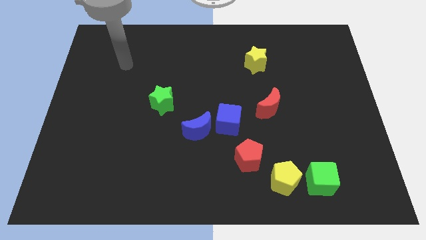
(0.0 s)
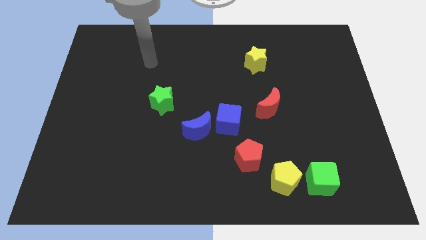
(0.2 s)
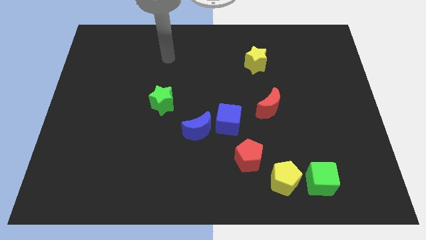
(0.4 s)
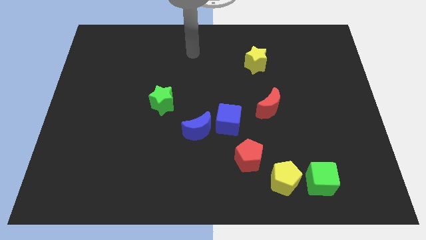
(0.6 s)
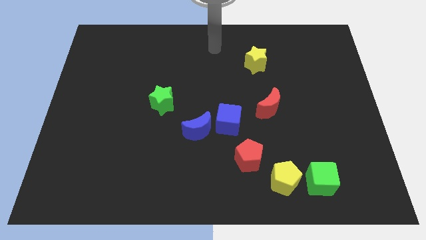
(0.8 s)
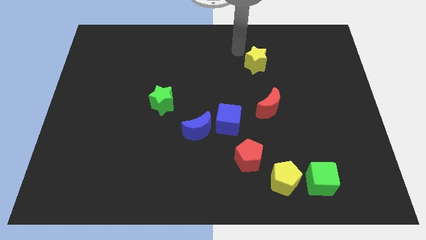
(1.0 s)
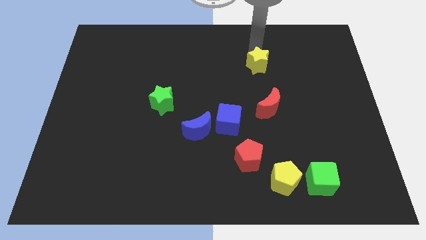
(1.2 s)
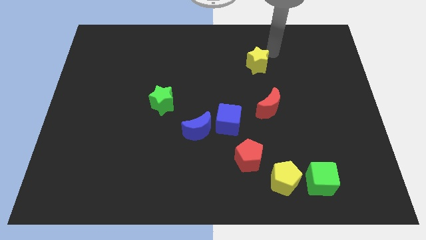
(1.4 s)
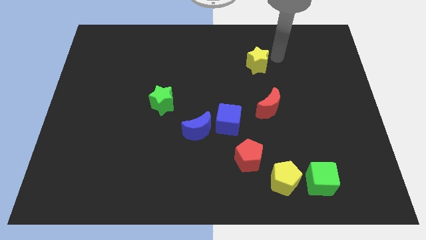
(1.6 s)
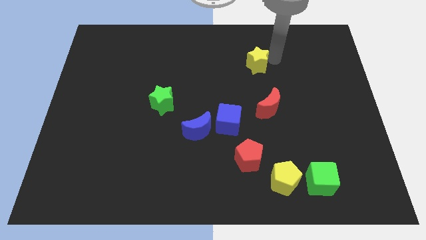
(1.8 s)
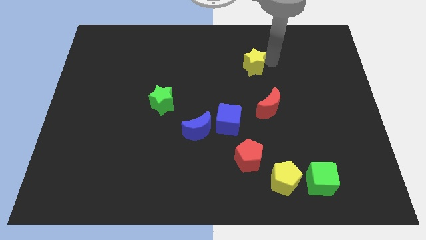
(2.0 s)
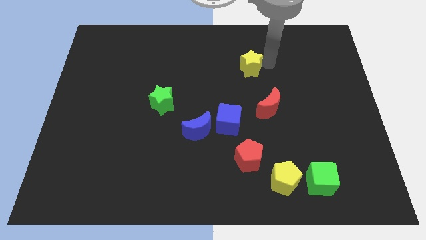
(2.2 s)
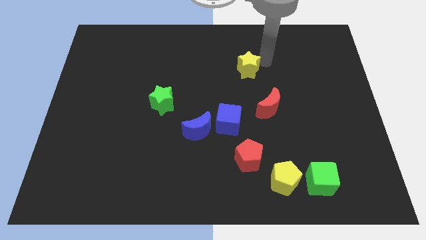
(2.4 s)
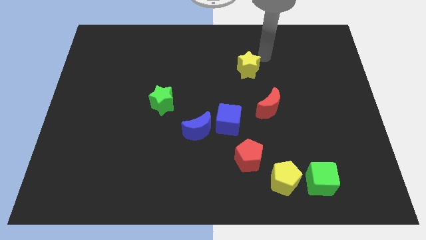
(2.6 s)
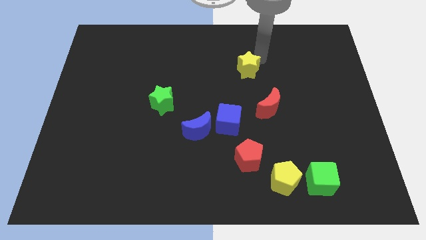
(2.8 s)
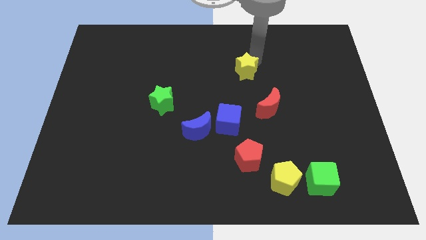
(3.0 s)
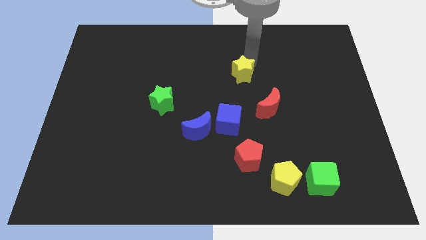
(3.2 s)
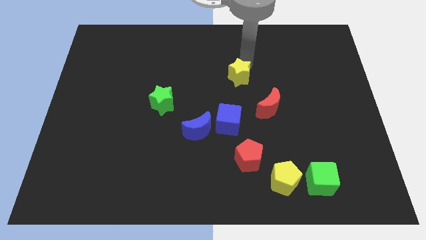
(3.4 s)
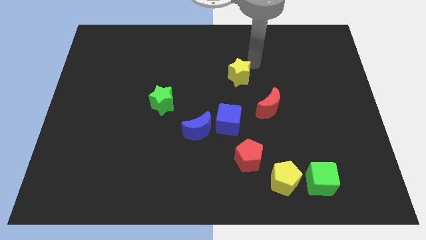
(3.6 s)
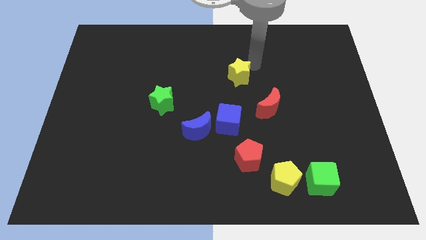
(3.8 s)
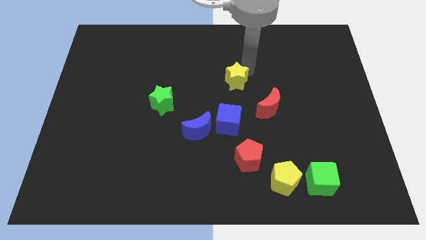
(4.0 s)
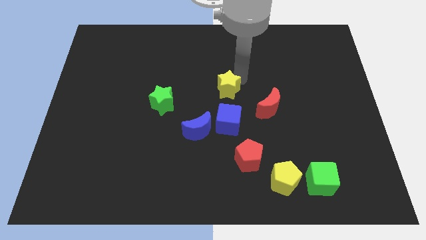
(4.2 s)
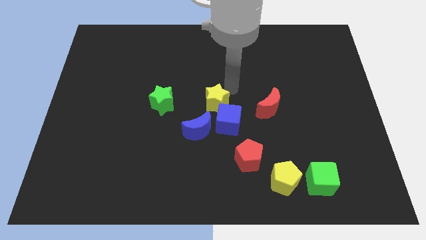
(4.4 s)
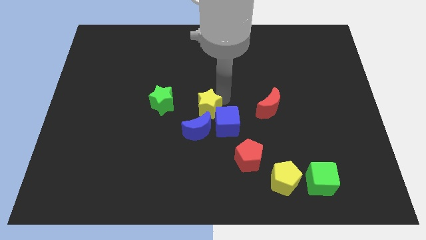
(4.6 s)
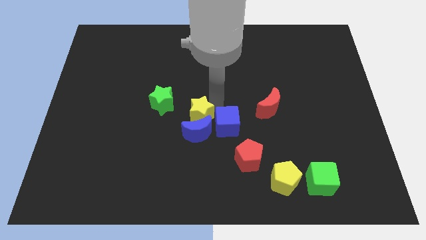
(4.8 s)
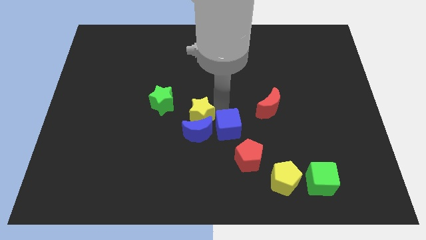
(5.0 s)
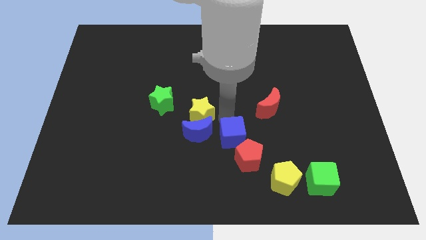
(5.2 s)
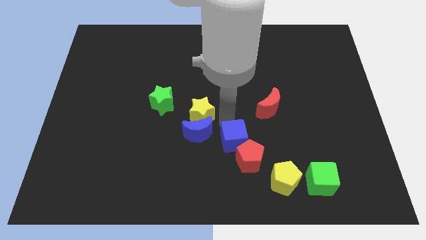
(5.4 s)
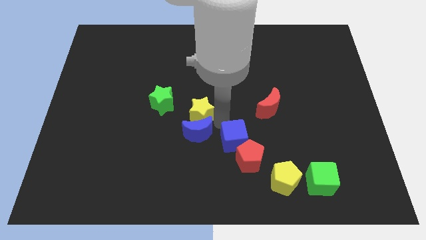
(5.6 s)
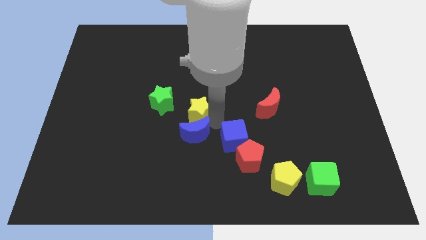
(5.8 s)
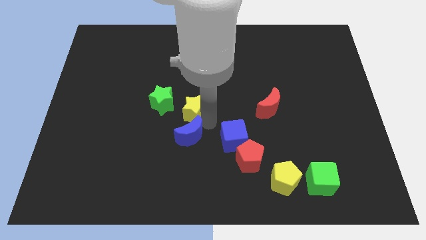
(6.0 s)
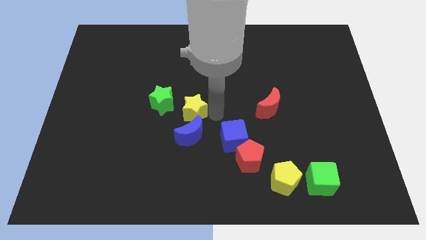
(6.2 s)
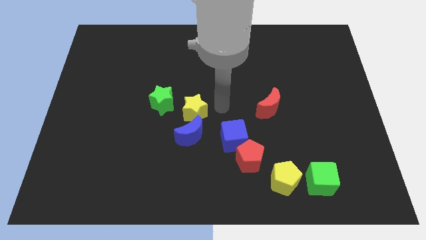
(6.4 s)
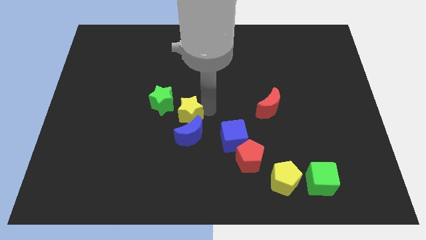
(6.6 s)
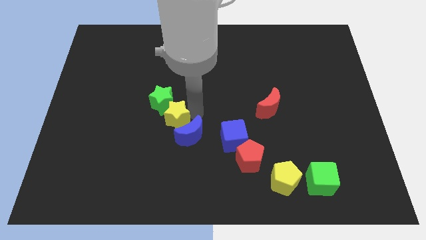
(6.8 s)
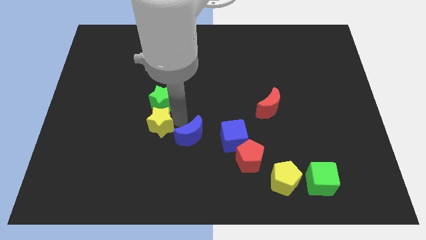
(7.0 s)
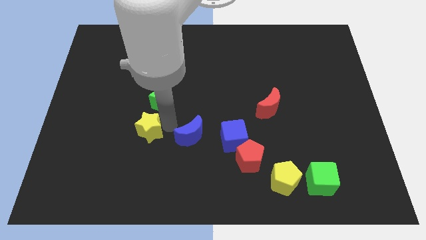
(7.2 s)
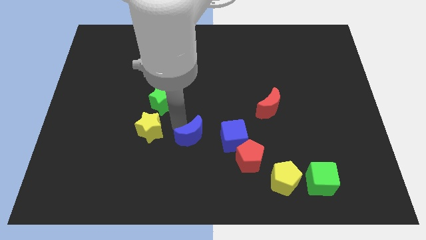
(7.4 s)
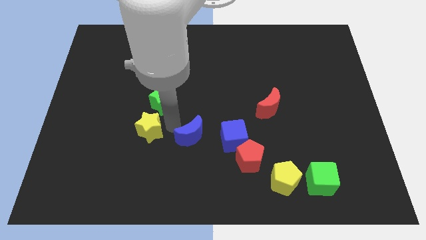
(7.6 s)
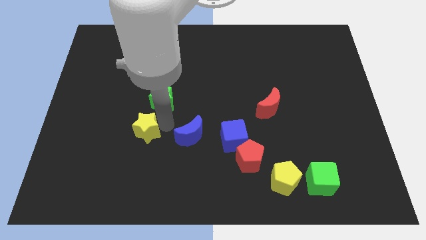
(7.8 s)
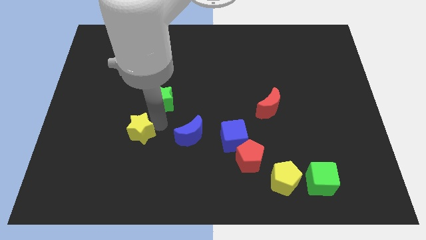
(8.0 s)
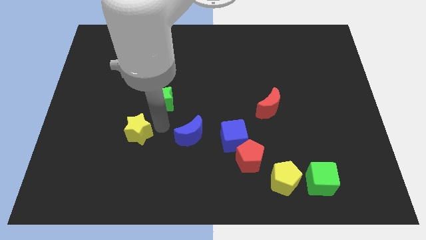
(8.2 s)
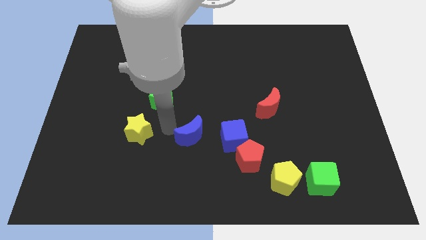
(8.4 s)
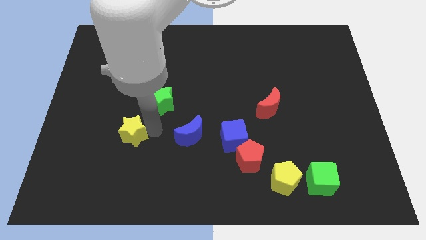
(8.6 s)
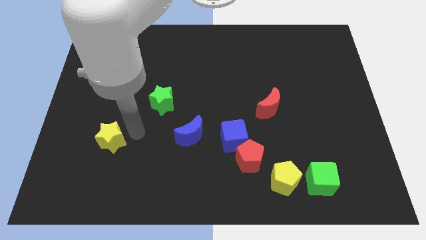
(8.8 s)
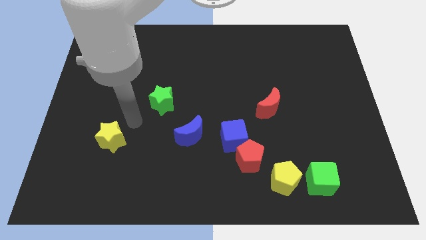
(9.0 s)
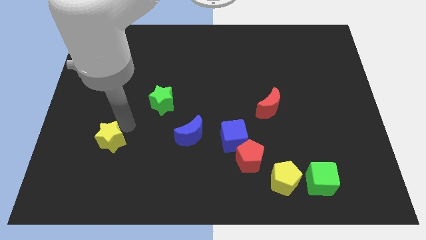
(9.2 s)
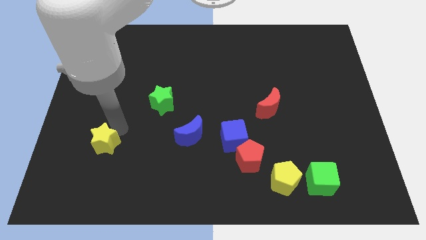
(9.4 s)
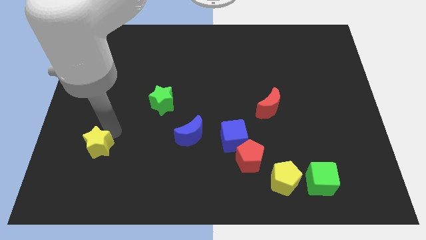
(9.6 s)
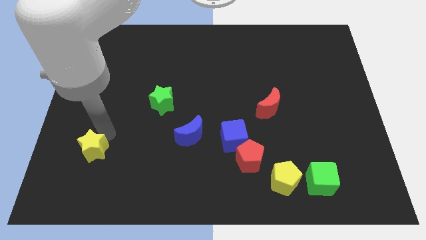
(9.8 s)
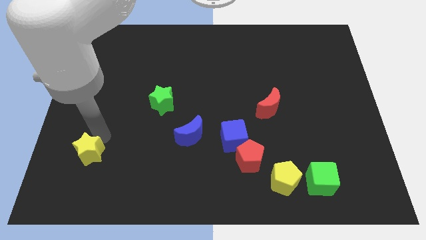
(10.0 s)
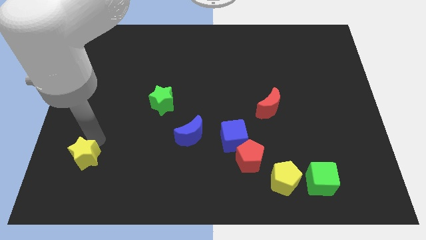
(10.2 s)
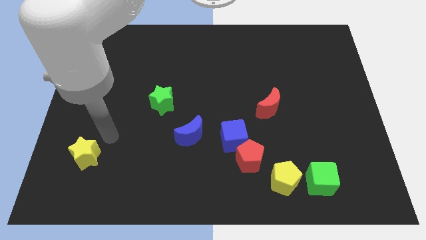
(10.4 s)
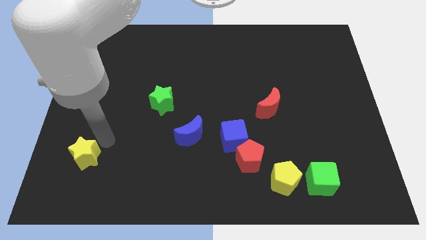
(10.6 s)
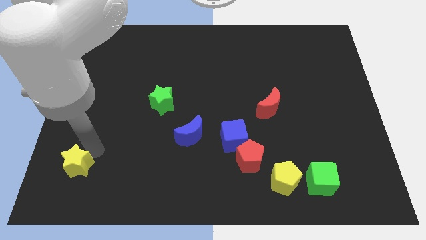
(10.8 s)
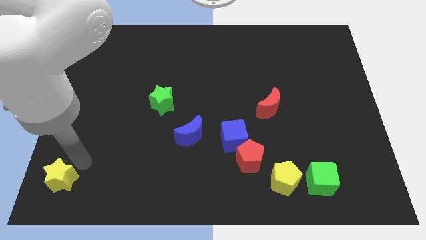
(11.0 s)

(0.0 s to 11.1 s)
push the yellow star to the bottom left
